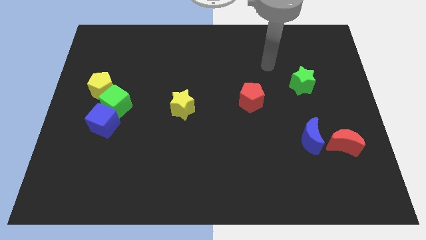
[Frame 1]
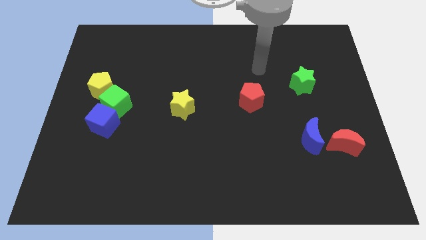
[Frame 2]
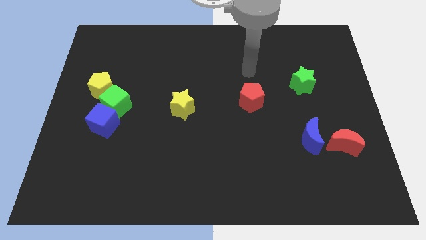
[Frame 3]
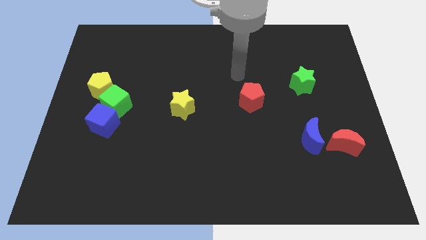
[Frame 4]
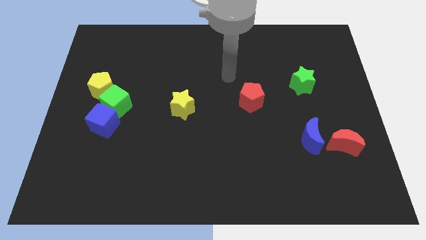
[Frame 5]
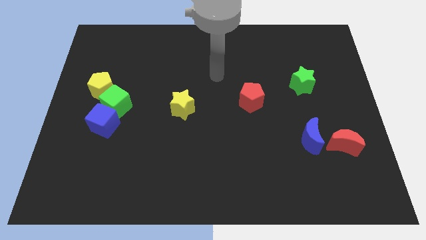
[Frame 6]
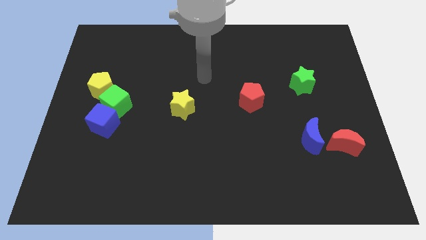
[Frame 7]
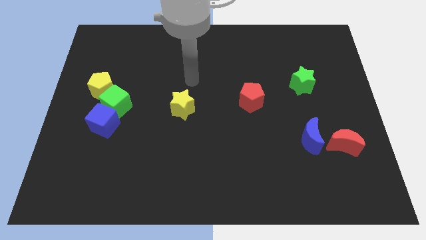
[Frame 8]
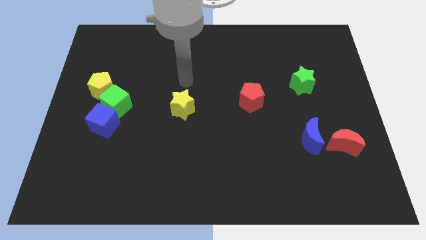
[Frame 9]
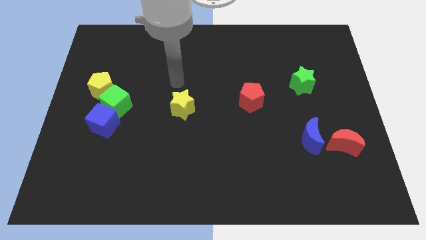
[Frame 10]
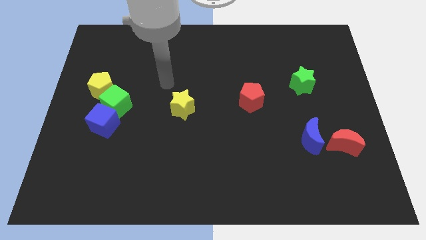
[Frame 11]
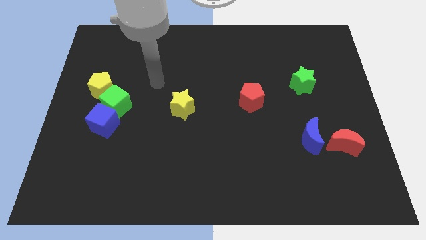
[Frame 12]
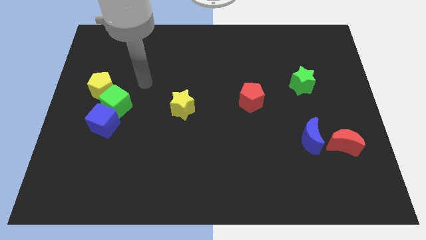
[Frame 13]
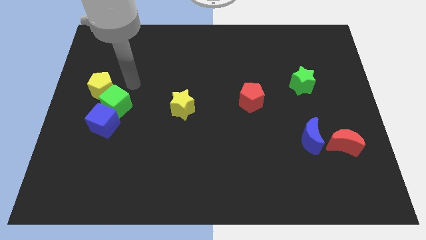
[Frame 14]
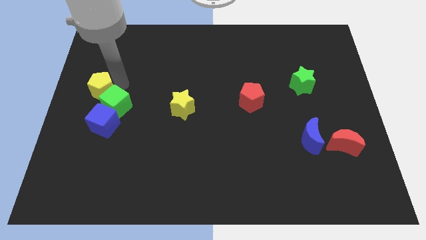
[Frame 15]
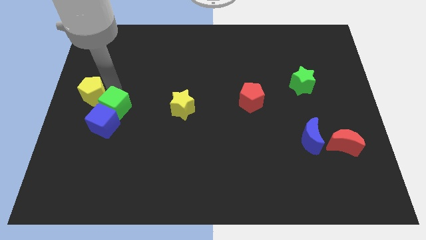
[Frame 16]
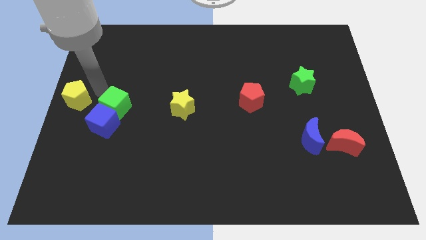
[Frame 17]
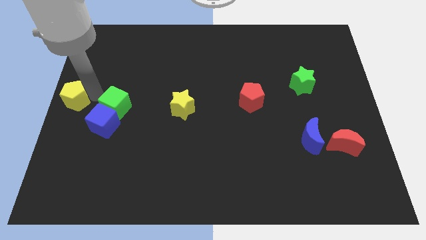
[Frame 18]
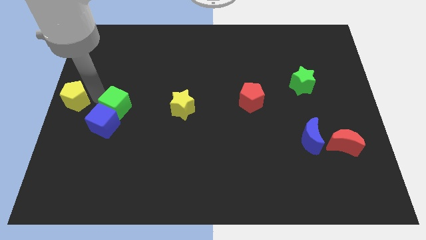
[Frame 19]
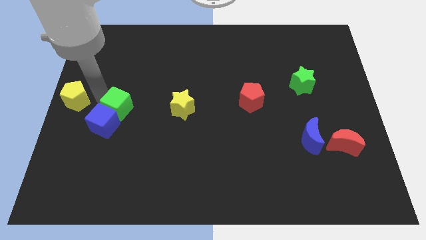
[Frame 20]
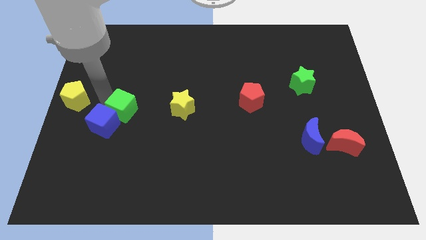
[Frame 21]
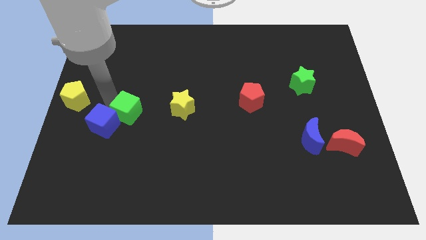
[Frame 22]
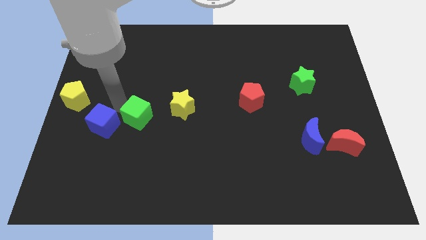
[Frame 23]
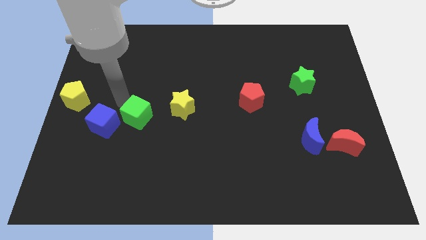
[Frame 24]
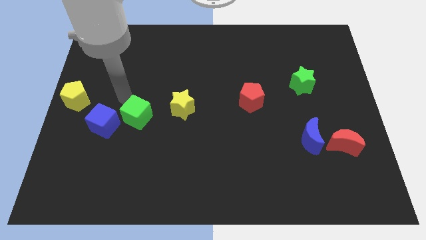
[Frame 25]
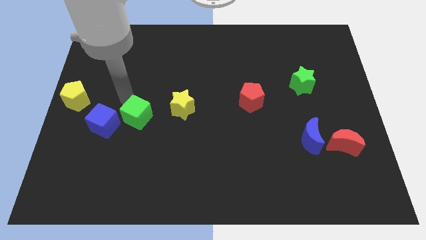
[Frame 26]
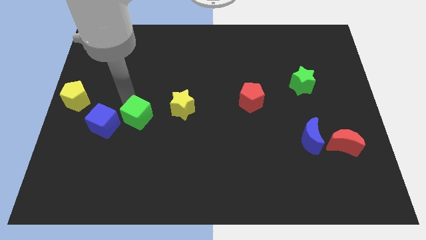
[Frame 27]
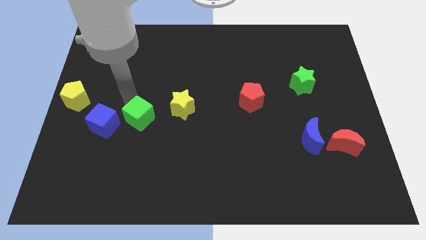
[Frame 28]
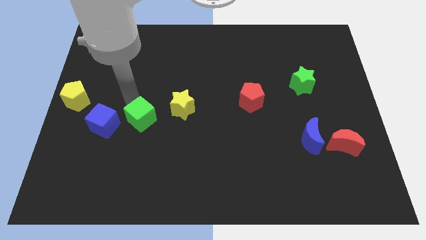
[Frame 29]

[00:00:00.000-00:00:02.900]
slightly push the green cube diagonally downwards and to the right

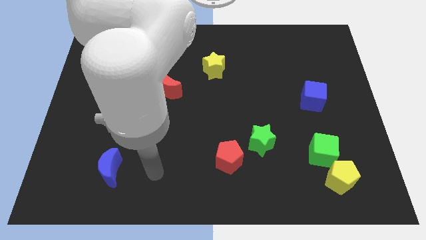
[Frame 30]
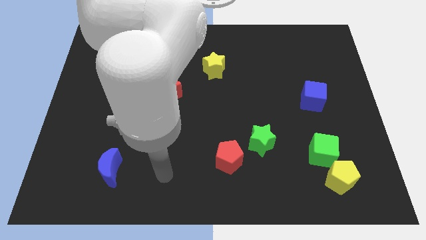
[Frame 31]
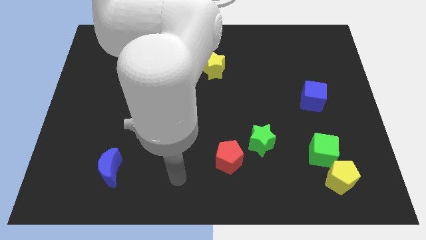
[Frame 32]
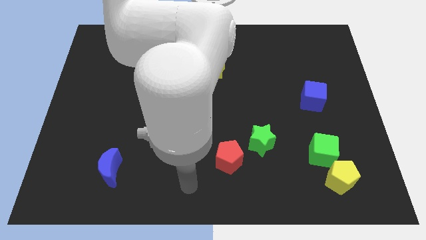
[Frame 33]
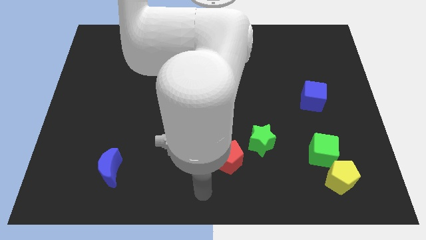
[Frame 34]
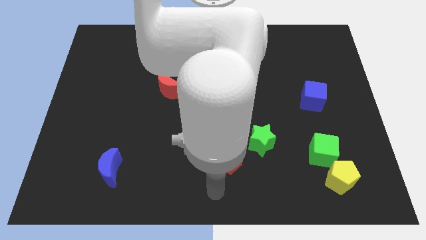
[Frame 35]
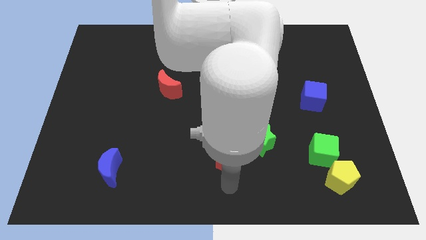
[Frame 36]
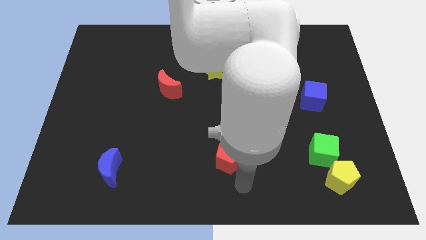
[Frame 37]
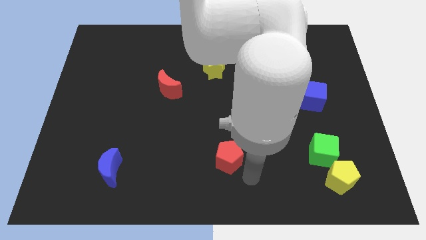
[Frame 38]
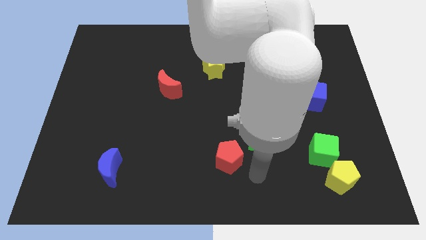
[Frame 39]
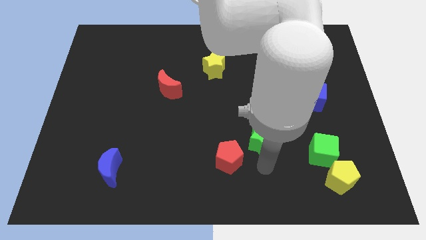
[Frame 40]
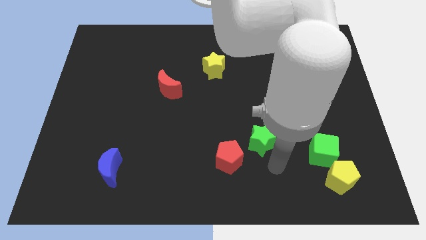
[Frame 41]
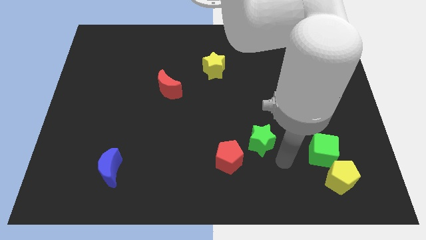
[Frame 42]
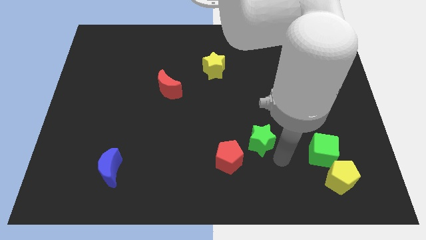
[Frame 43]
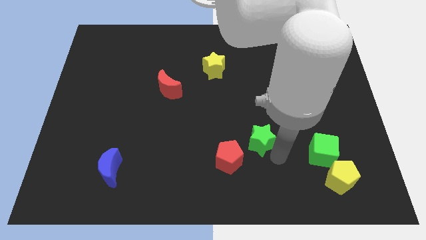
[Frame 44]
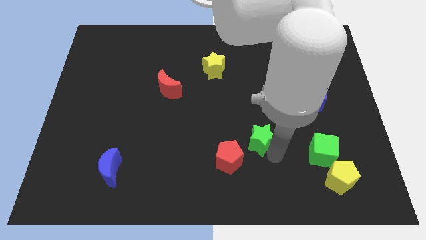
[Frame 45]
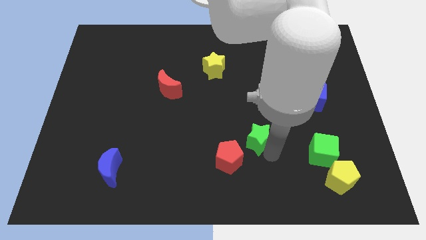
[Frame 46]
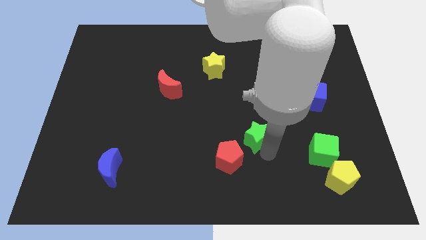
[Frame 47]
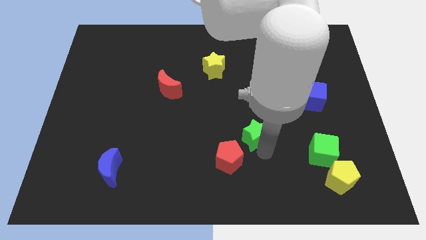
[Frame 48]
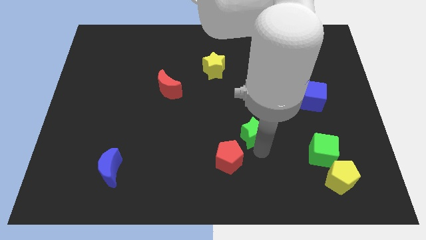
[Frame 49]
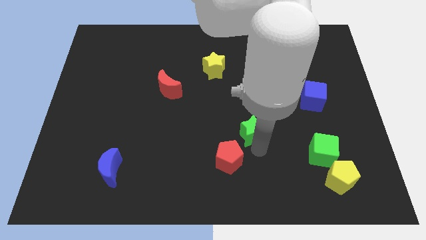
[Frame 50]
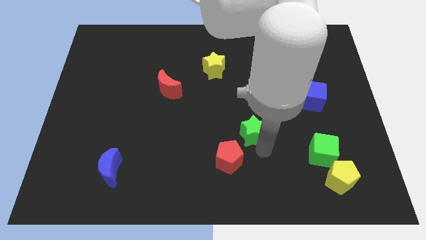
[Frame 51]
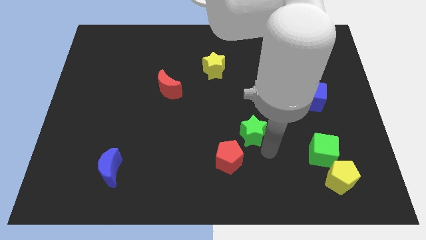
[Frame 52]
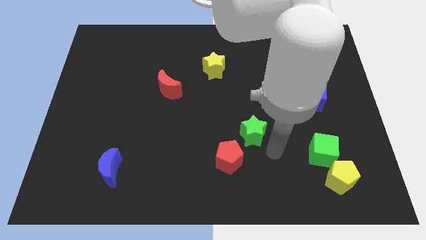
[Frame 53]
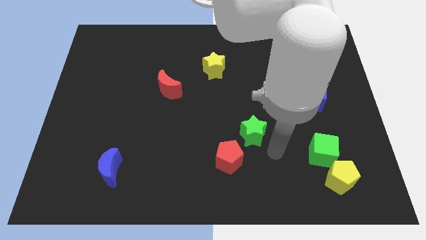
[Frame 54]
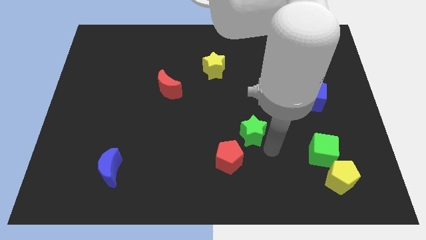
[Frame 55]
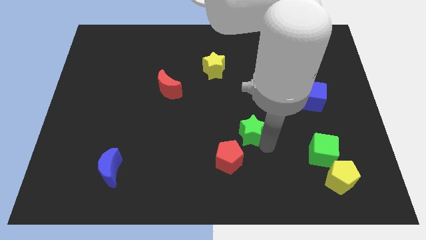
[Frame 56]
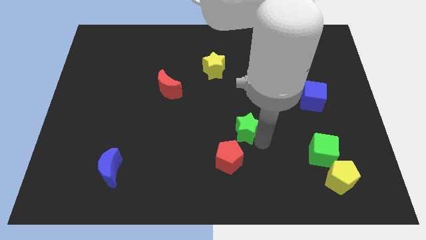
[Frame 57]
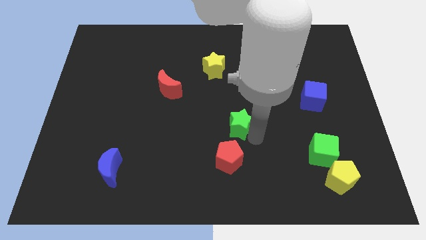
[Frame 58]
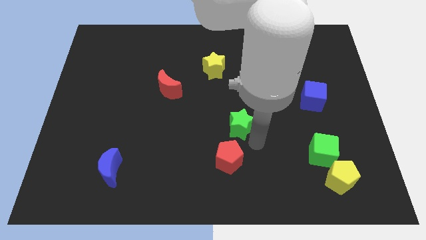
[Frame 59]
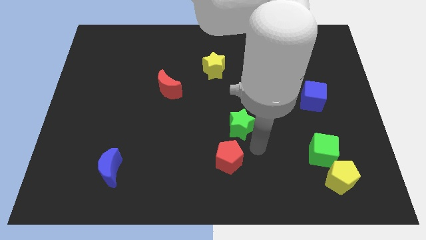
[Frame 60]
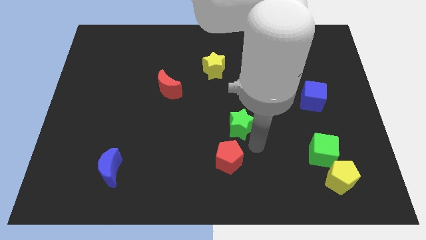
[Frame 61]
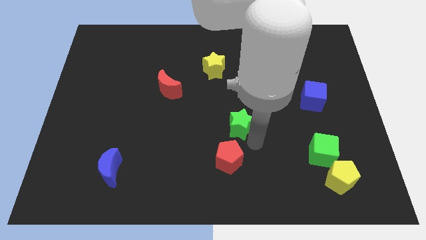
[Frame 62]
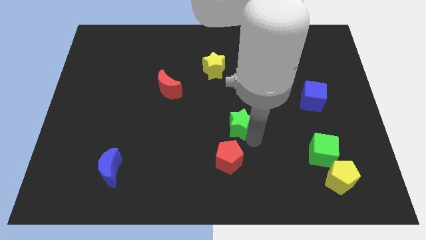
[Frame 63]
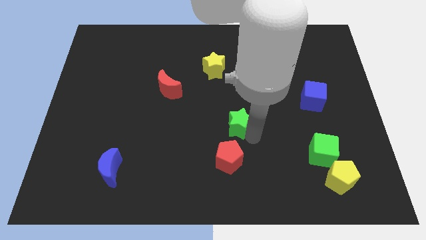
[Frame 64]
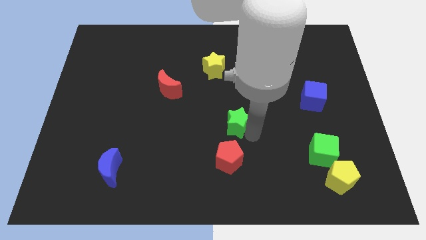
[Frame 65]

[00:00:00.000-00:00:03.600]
slide the green star somewhat up and to the left diagonally

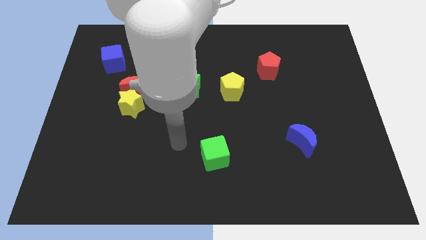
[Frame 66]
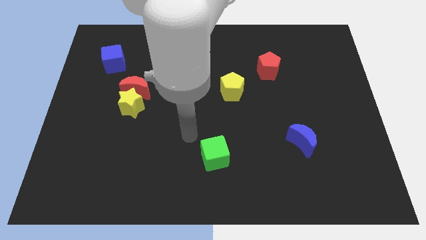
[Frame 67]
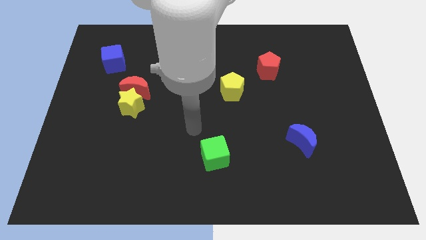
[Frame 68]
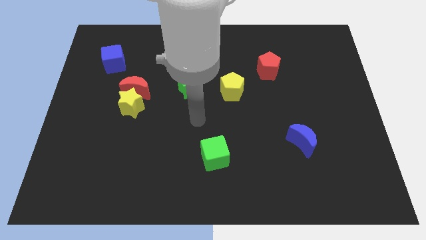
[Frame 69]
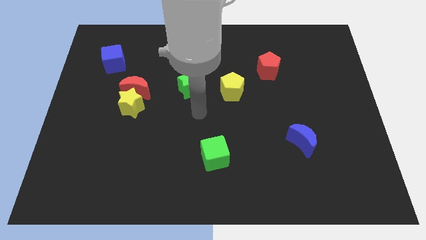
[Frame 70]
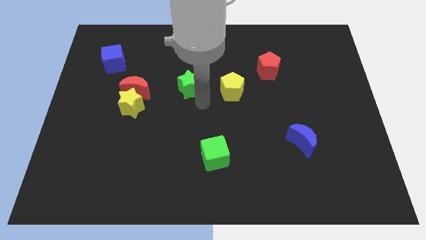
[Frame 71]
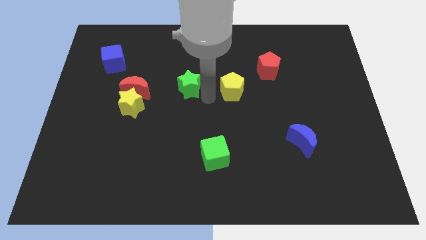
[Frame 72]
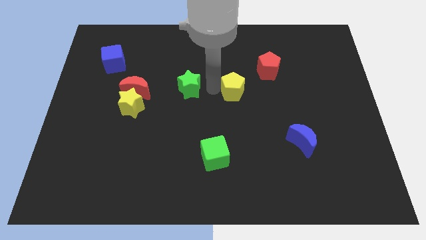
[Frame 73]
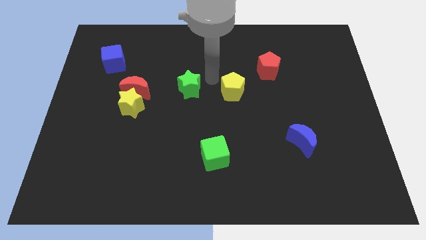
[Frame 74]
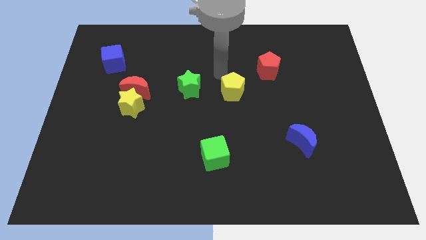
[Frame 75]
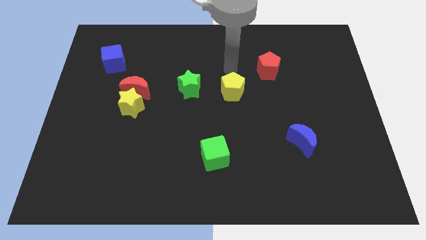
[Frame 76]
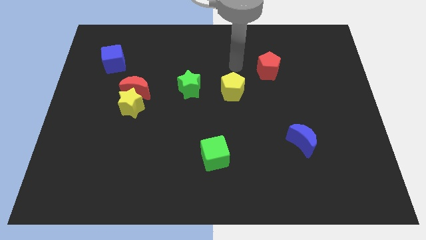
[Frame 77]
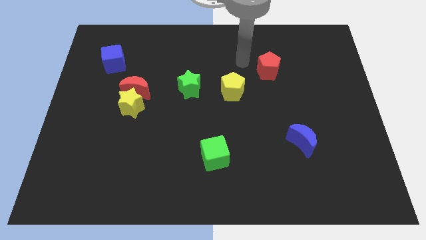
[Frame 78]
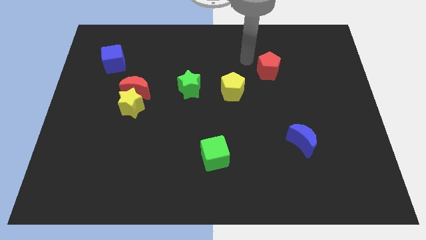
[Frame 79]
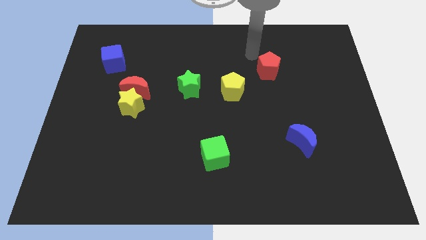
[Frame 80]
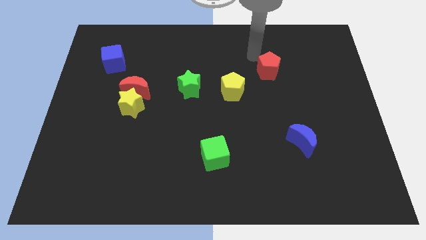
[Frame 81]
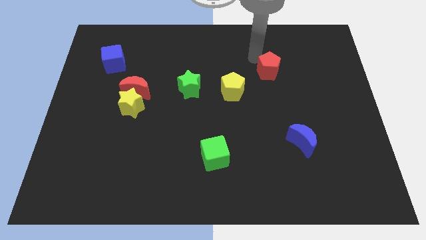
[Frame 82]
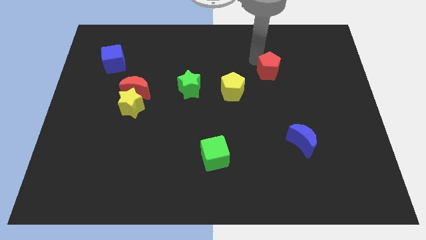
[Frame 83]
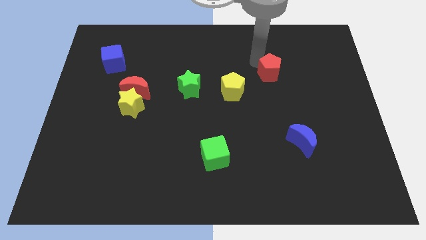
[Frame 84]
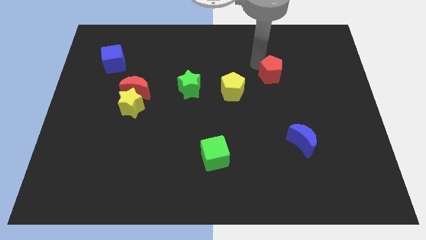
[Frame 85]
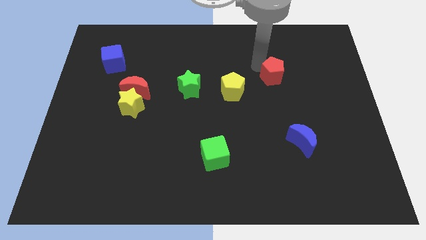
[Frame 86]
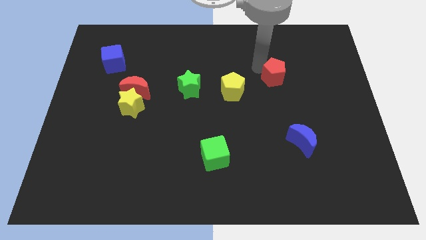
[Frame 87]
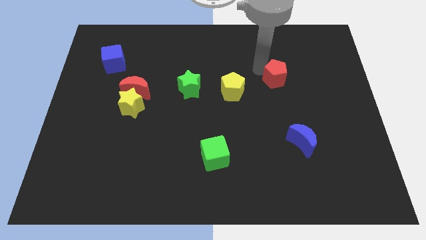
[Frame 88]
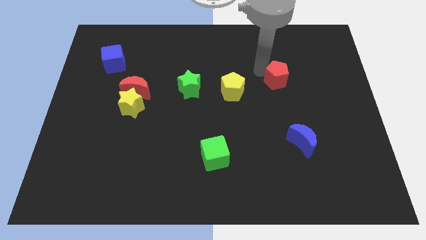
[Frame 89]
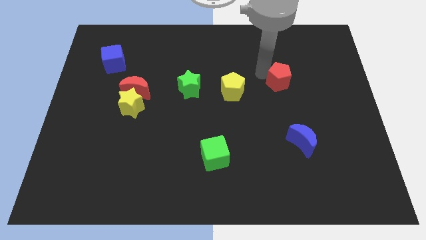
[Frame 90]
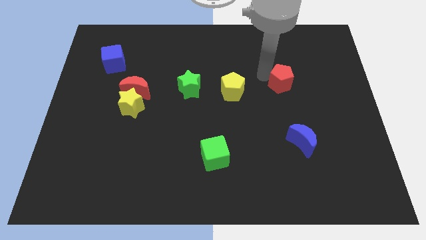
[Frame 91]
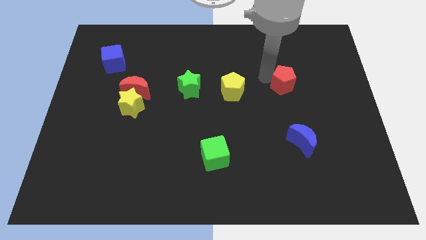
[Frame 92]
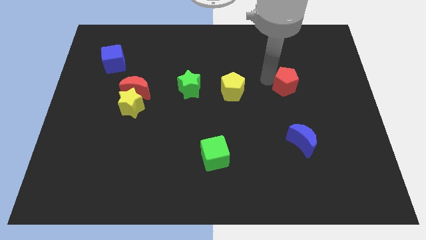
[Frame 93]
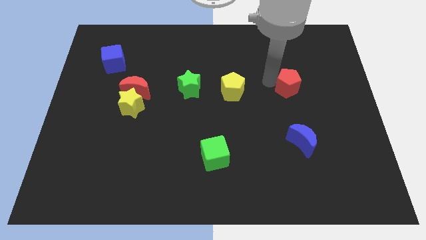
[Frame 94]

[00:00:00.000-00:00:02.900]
move the red pentagon a bit diagonally downwards and right
